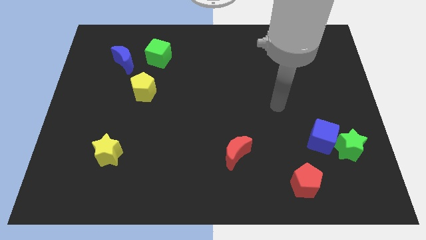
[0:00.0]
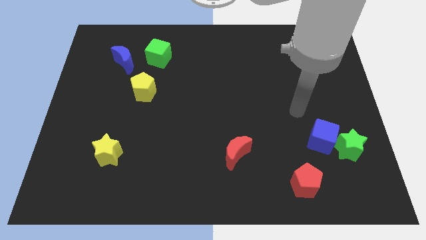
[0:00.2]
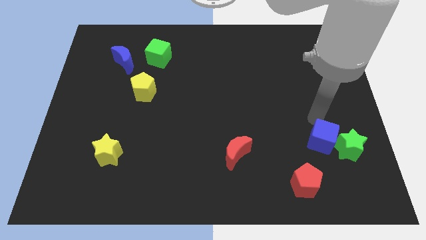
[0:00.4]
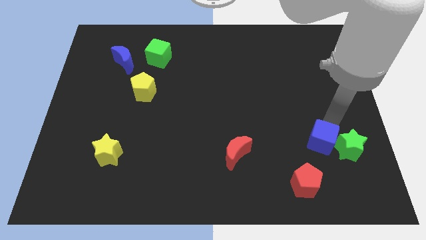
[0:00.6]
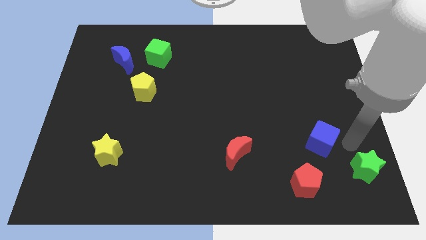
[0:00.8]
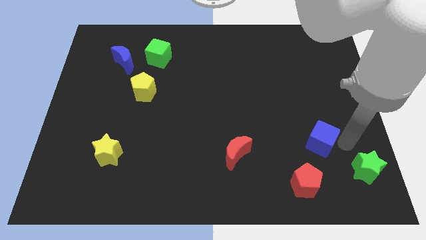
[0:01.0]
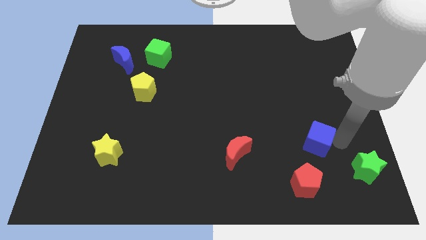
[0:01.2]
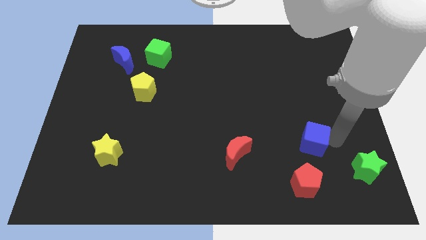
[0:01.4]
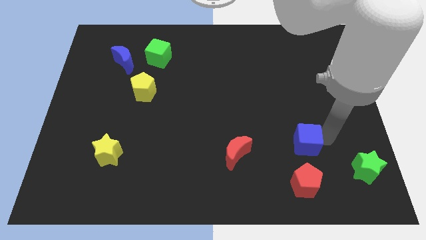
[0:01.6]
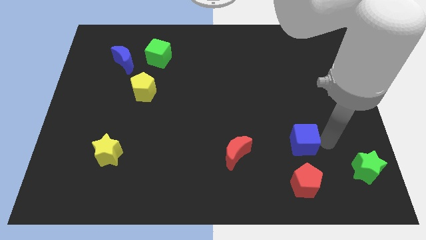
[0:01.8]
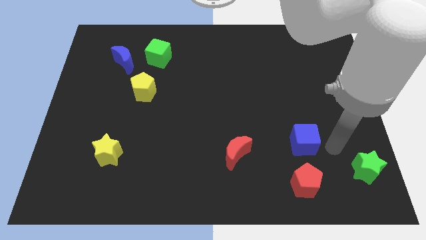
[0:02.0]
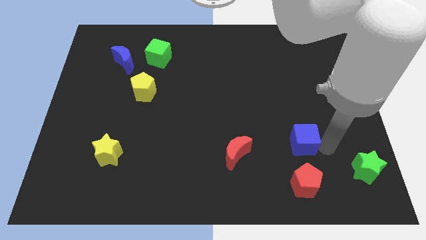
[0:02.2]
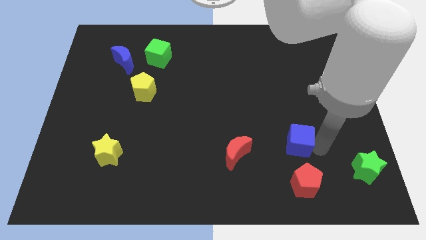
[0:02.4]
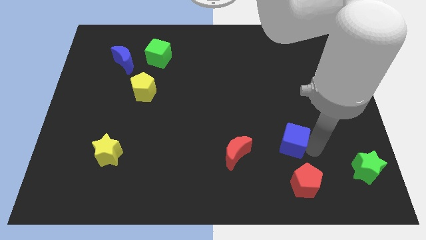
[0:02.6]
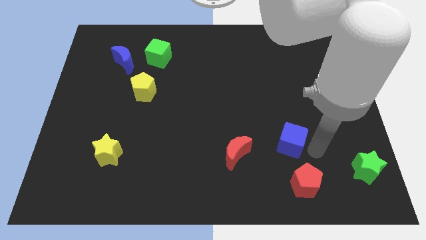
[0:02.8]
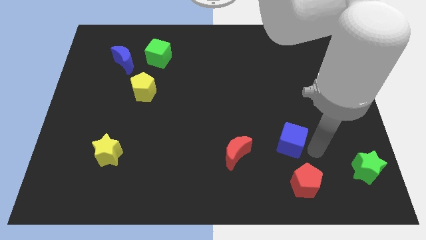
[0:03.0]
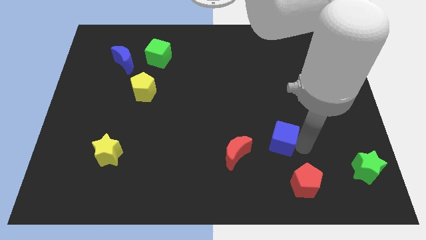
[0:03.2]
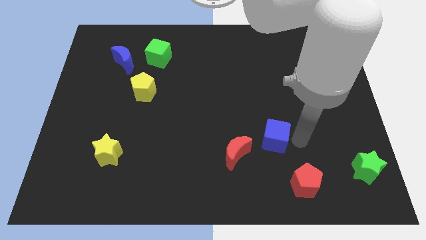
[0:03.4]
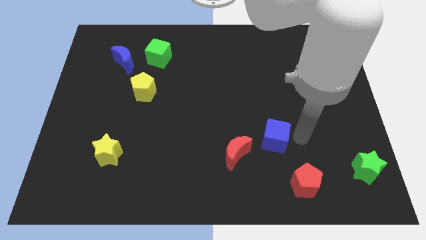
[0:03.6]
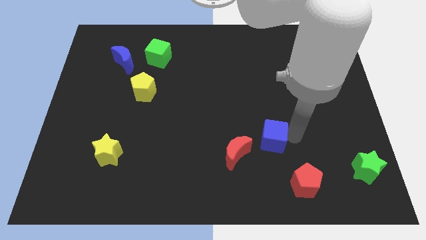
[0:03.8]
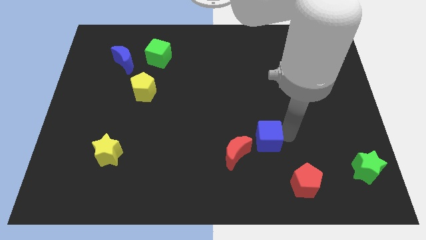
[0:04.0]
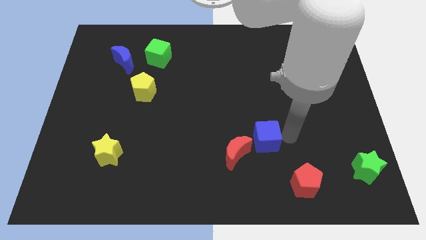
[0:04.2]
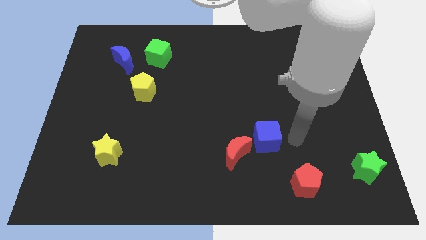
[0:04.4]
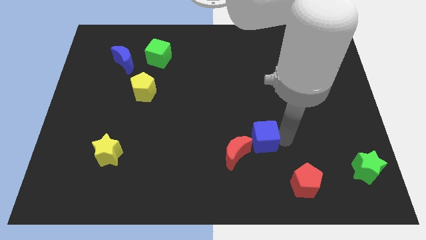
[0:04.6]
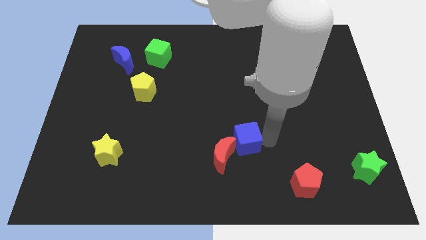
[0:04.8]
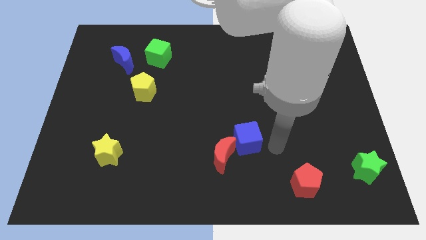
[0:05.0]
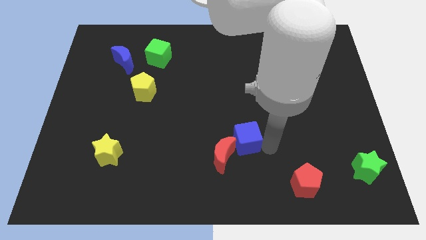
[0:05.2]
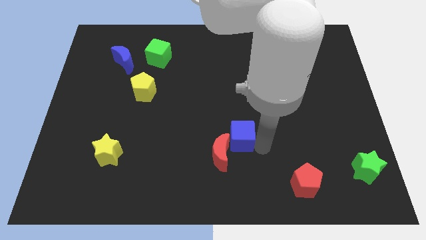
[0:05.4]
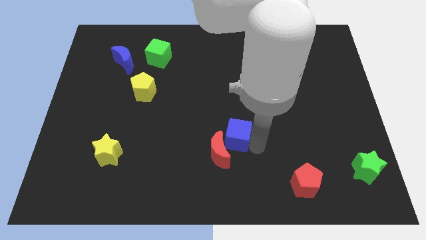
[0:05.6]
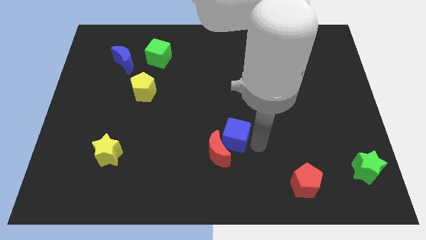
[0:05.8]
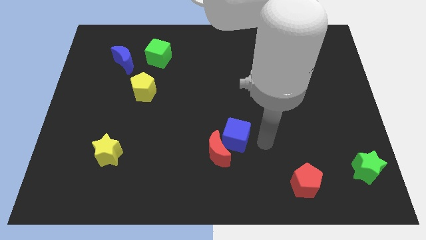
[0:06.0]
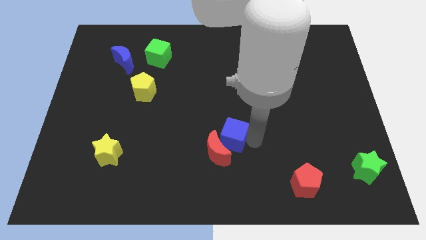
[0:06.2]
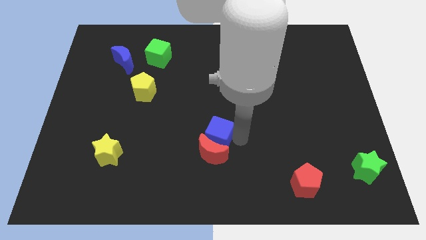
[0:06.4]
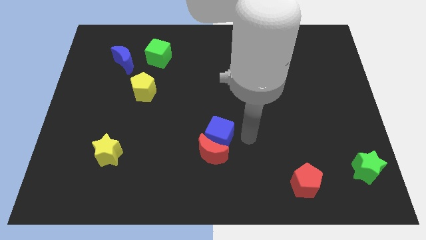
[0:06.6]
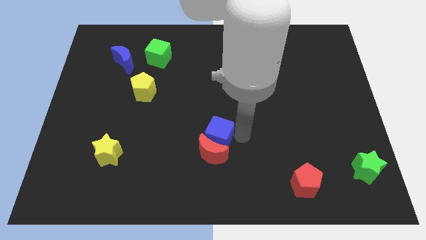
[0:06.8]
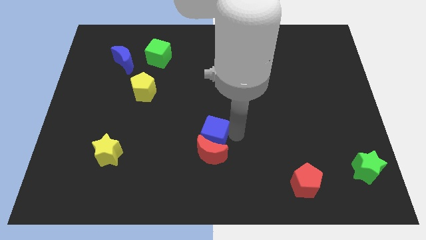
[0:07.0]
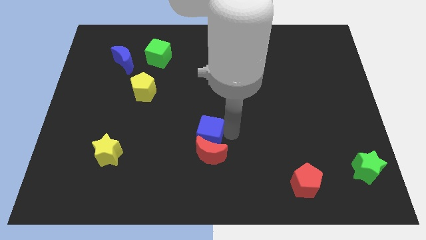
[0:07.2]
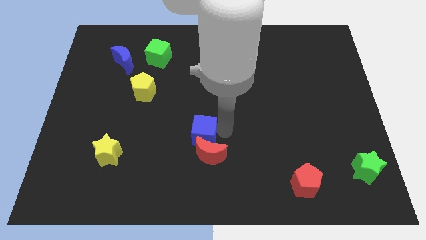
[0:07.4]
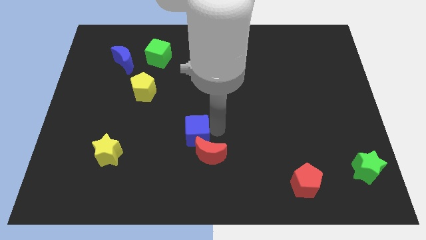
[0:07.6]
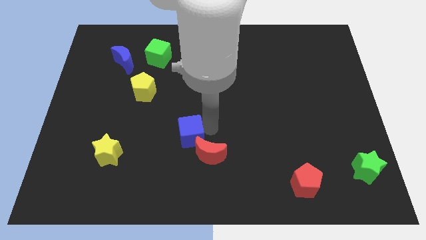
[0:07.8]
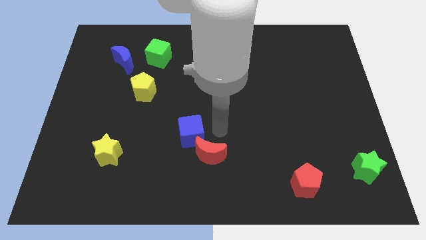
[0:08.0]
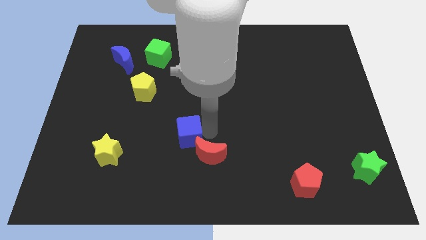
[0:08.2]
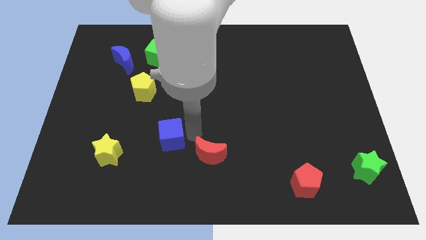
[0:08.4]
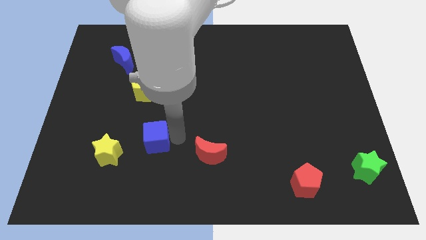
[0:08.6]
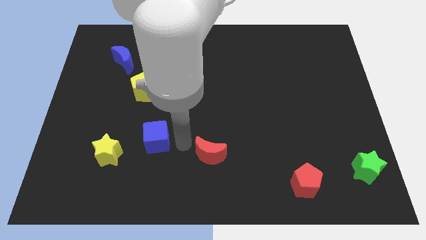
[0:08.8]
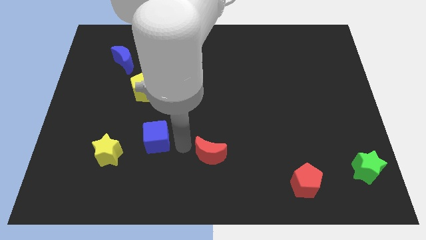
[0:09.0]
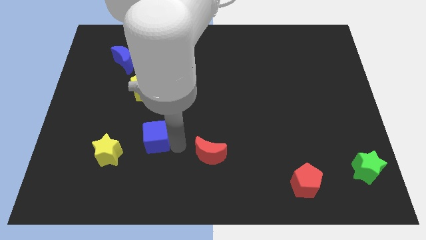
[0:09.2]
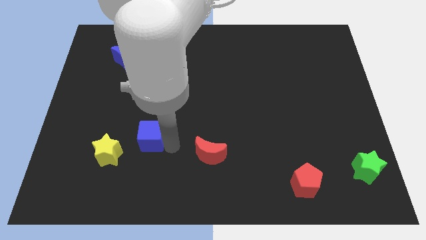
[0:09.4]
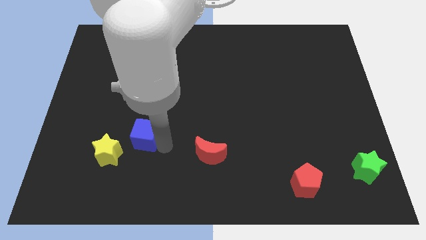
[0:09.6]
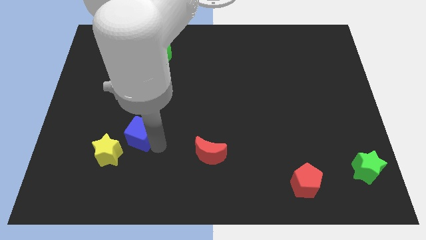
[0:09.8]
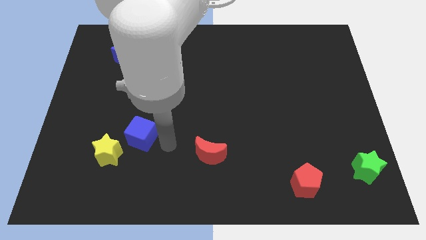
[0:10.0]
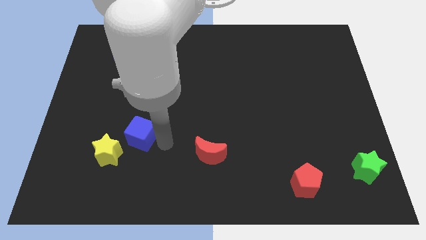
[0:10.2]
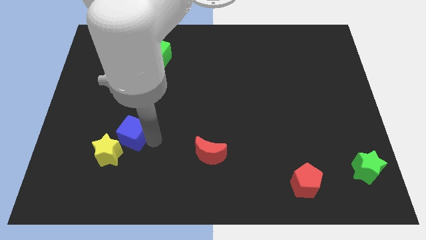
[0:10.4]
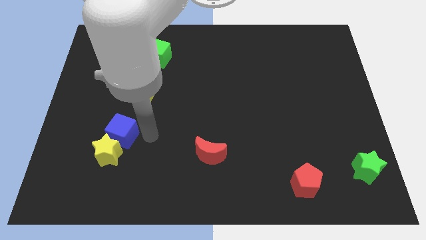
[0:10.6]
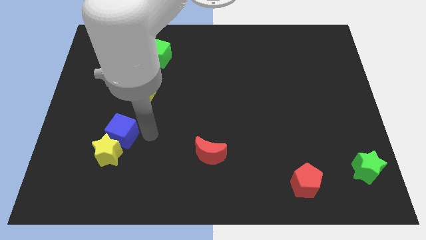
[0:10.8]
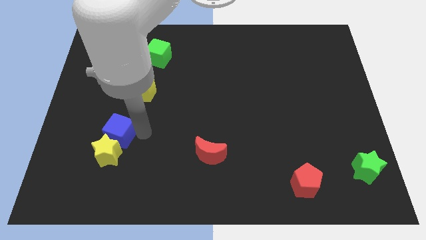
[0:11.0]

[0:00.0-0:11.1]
slide the blue cube diagonally up and to the left of the yellow star
